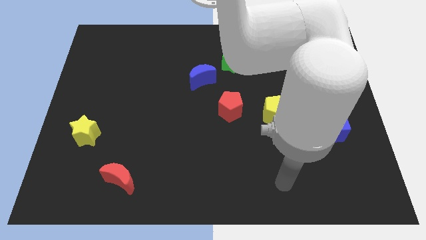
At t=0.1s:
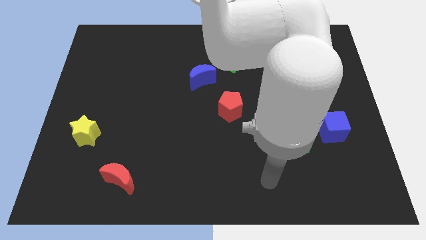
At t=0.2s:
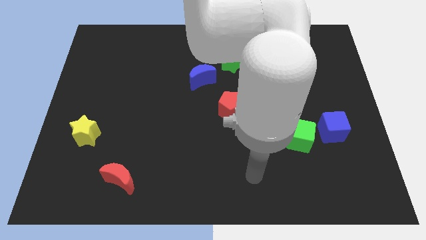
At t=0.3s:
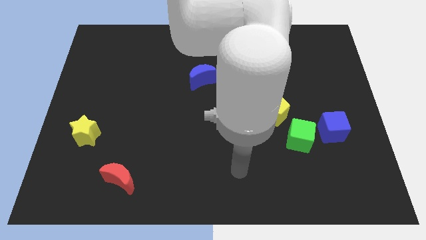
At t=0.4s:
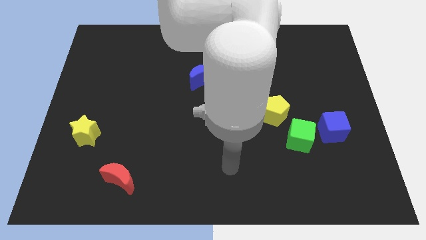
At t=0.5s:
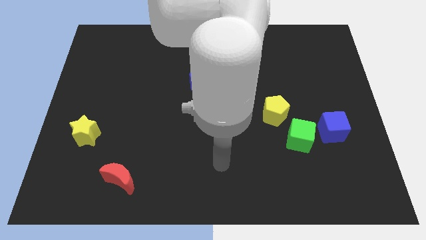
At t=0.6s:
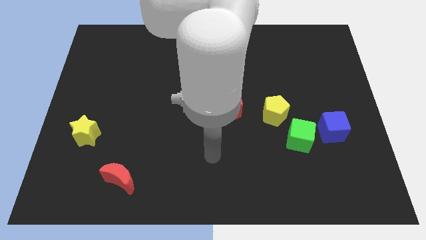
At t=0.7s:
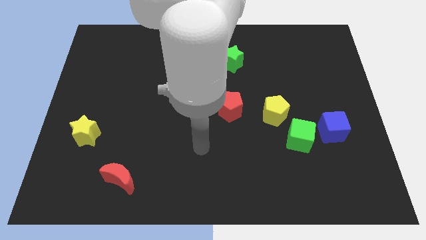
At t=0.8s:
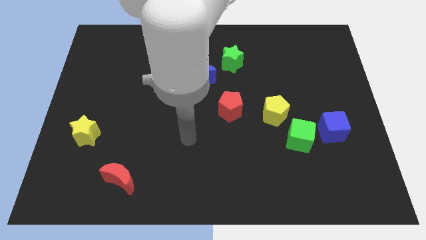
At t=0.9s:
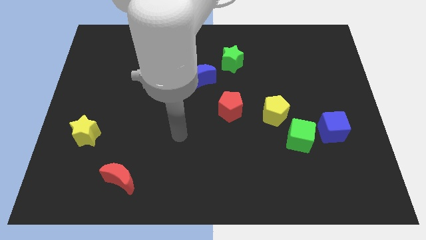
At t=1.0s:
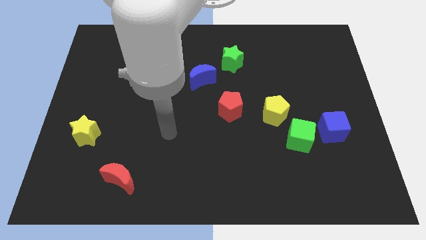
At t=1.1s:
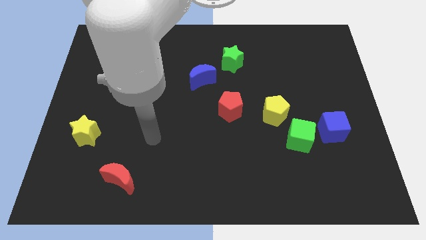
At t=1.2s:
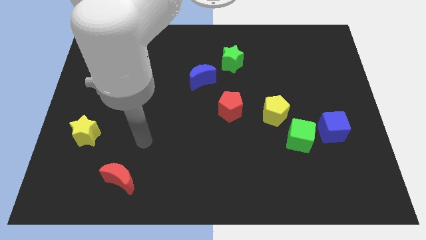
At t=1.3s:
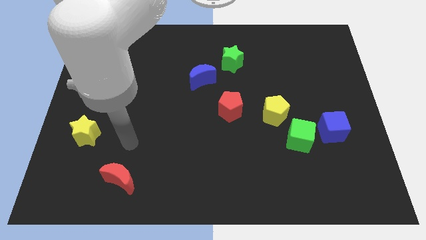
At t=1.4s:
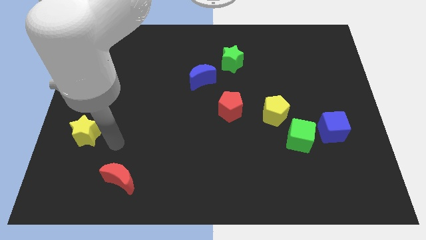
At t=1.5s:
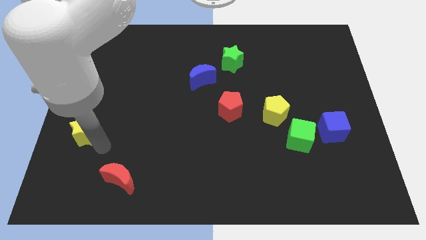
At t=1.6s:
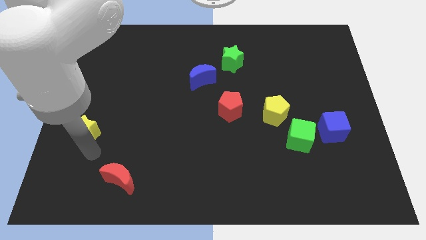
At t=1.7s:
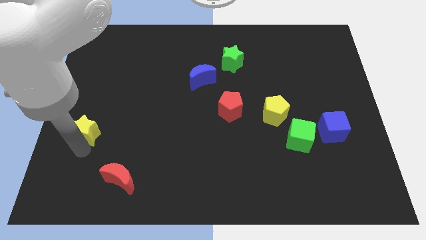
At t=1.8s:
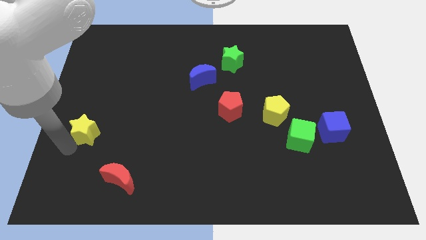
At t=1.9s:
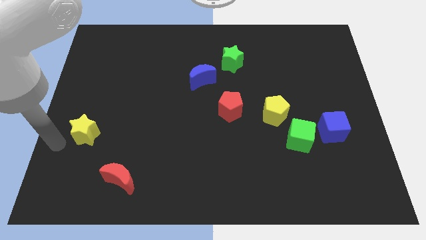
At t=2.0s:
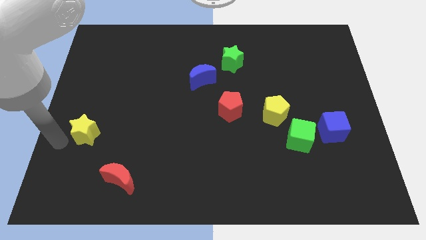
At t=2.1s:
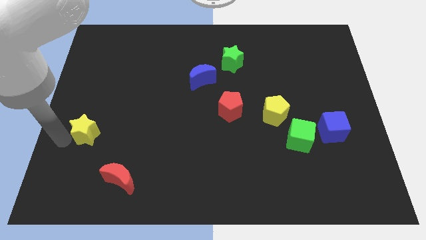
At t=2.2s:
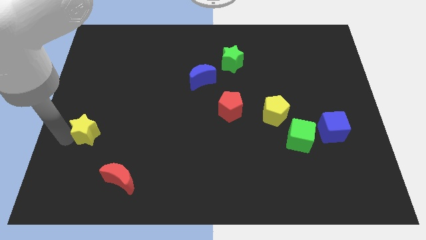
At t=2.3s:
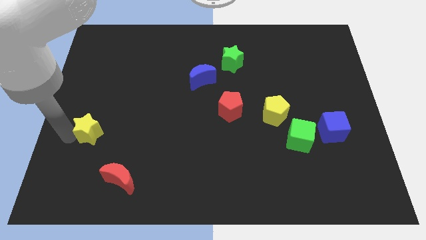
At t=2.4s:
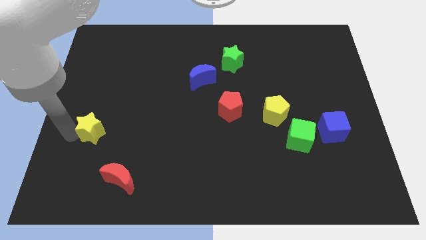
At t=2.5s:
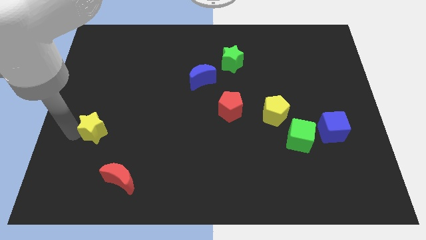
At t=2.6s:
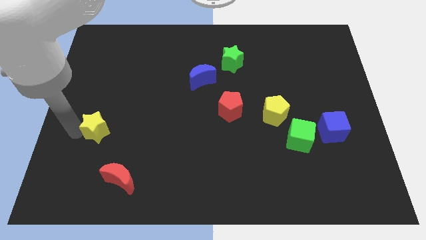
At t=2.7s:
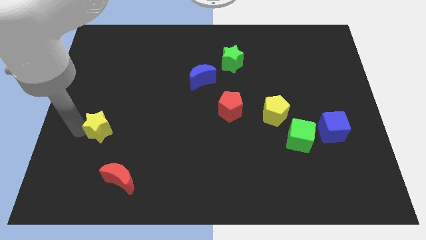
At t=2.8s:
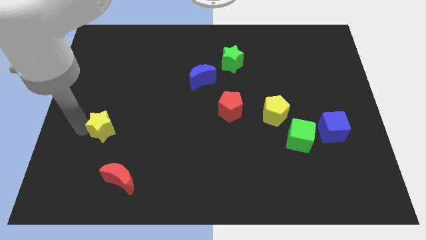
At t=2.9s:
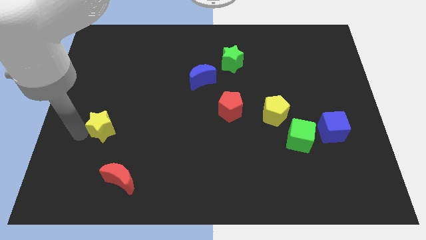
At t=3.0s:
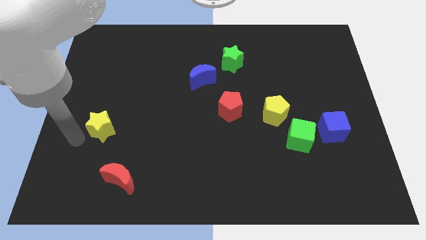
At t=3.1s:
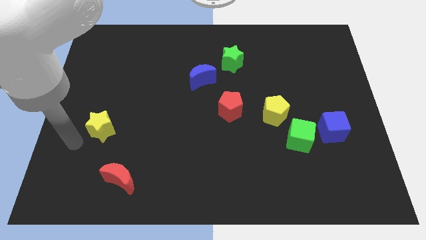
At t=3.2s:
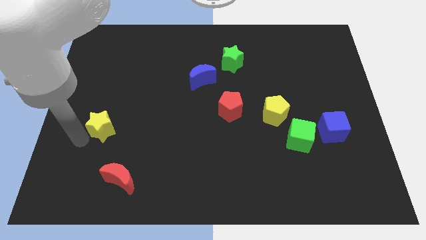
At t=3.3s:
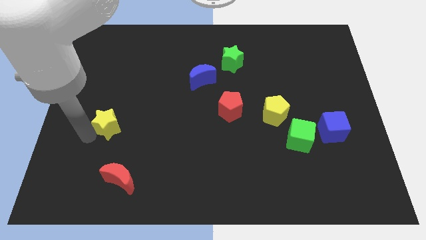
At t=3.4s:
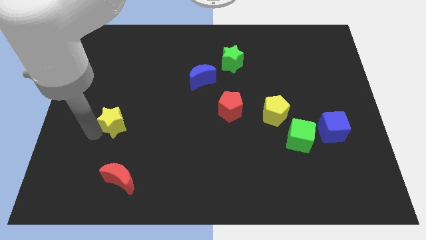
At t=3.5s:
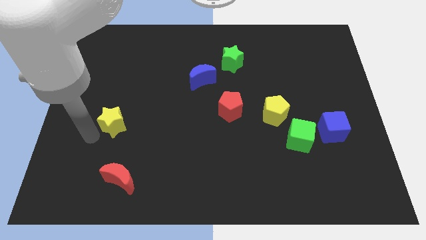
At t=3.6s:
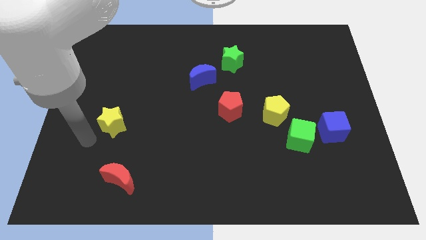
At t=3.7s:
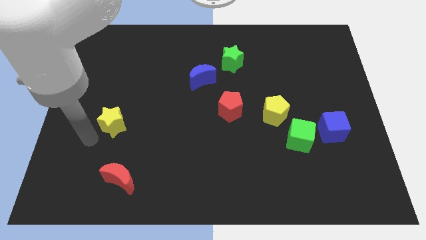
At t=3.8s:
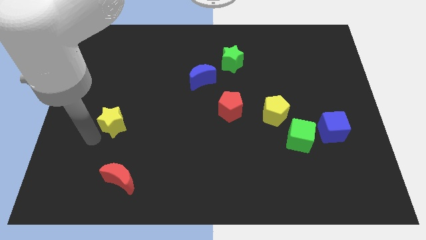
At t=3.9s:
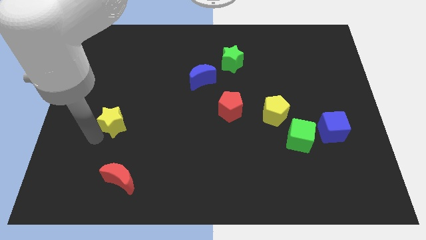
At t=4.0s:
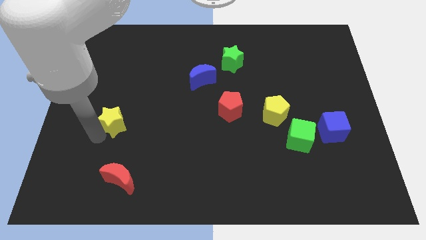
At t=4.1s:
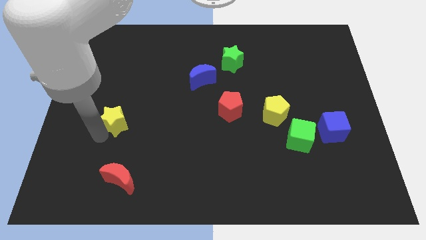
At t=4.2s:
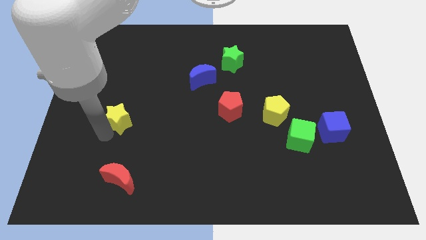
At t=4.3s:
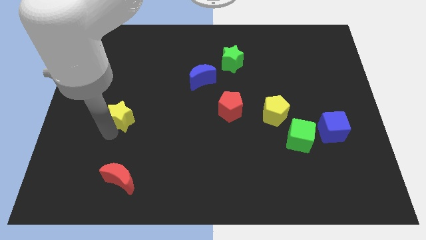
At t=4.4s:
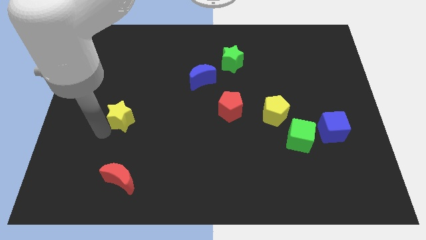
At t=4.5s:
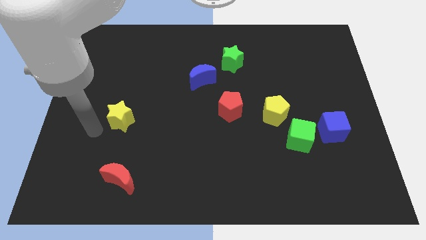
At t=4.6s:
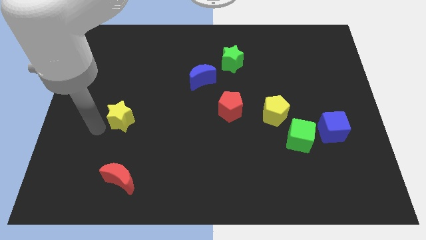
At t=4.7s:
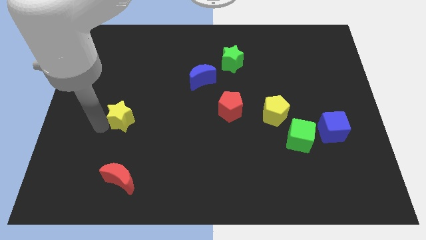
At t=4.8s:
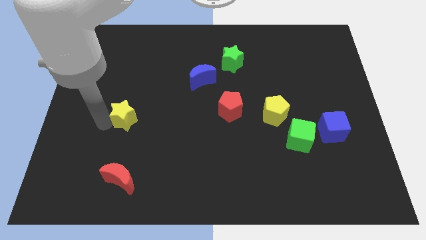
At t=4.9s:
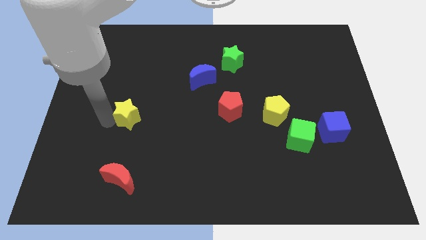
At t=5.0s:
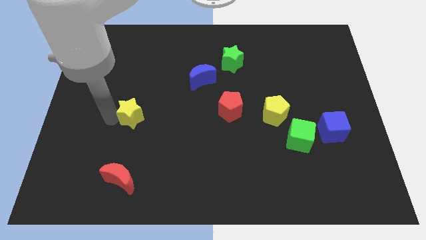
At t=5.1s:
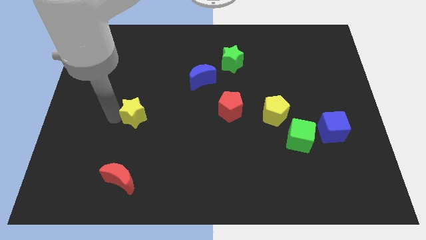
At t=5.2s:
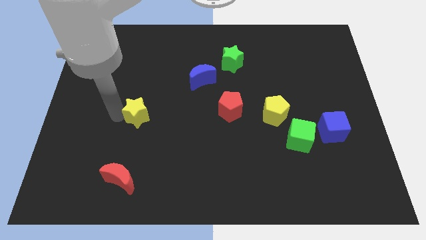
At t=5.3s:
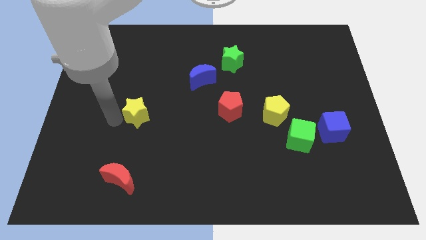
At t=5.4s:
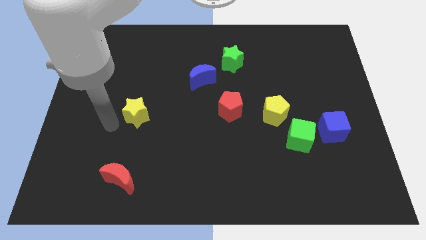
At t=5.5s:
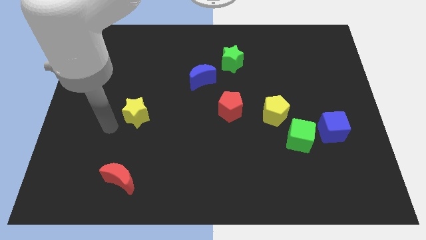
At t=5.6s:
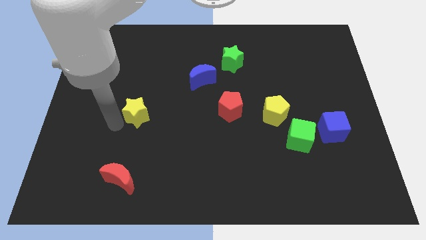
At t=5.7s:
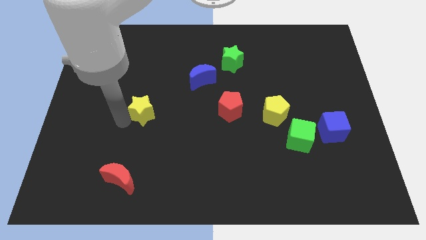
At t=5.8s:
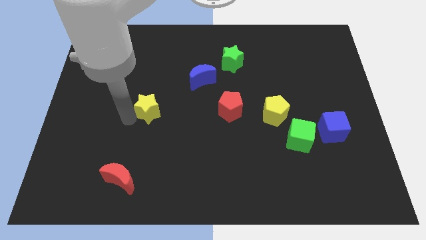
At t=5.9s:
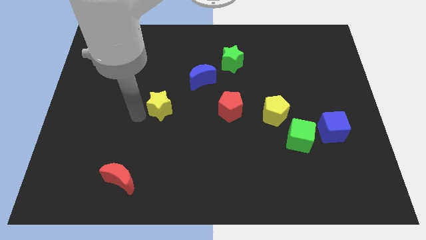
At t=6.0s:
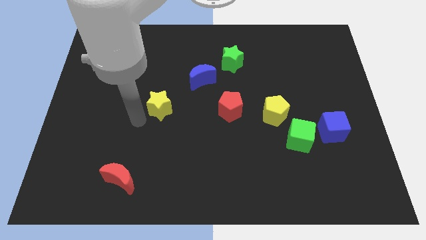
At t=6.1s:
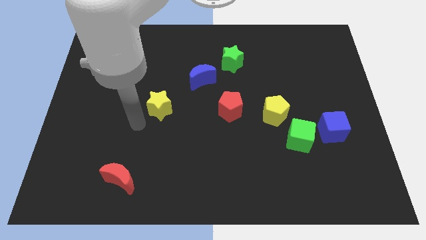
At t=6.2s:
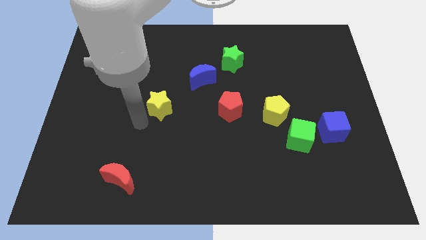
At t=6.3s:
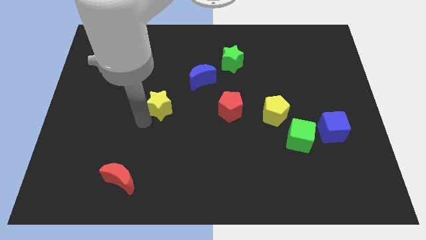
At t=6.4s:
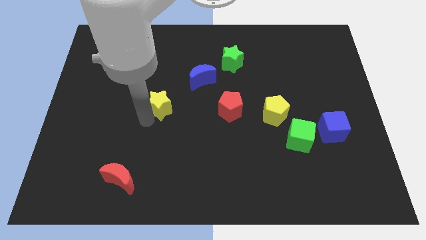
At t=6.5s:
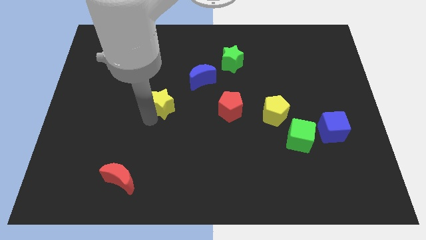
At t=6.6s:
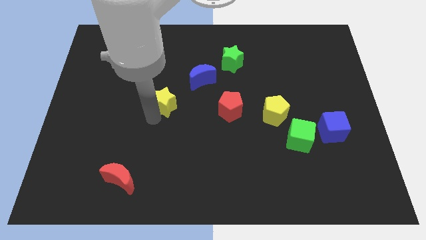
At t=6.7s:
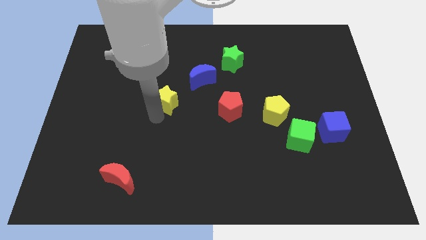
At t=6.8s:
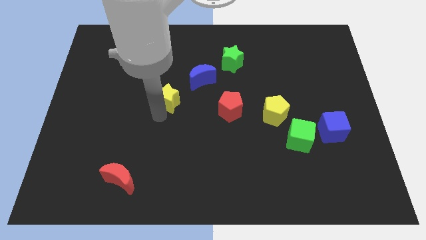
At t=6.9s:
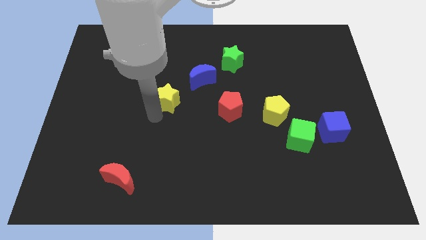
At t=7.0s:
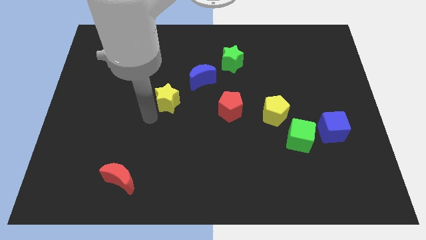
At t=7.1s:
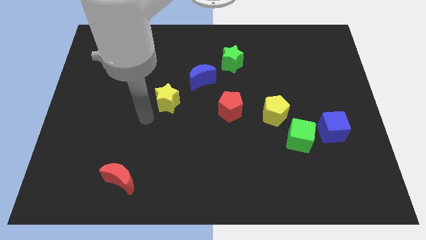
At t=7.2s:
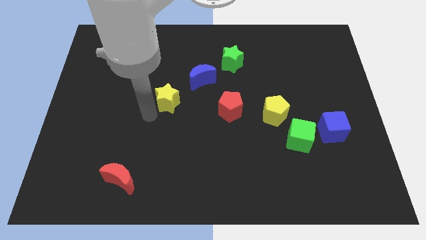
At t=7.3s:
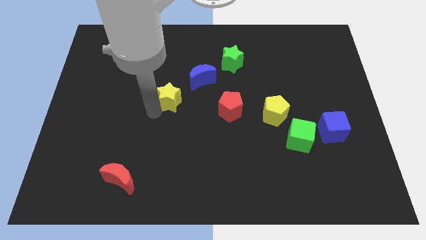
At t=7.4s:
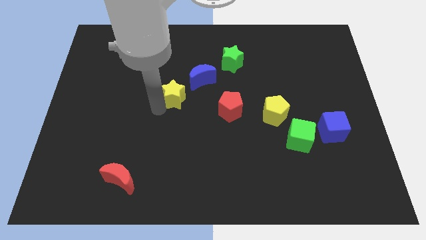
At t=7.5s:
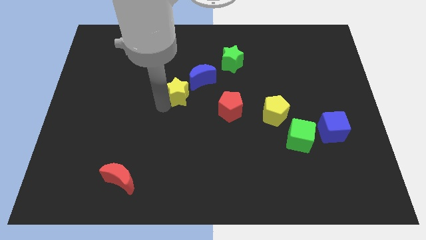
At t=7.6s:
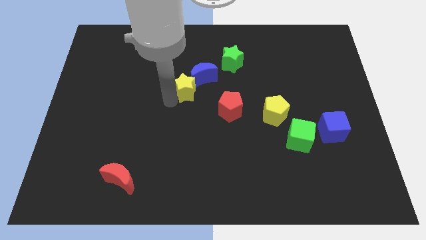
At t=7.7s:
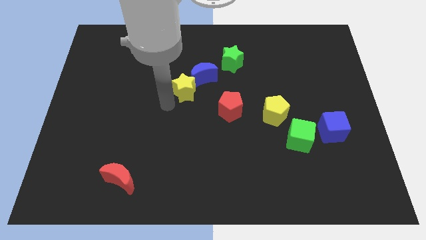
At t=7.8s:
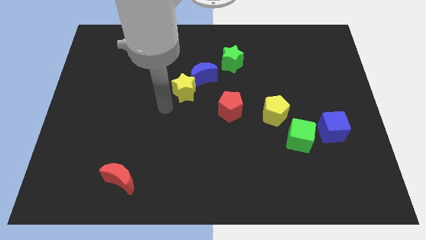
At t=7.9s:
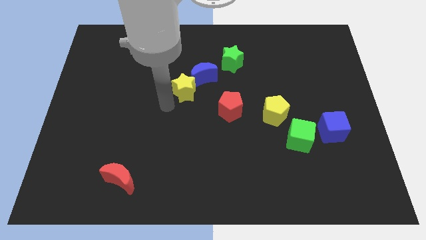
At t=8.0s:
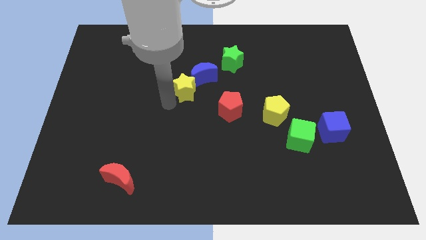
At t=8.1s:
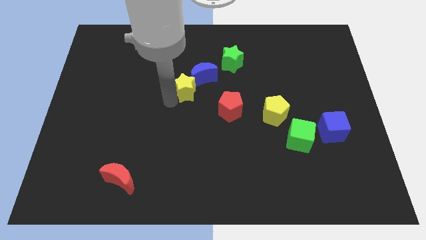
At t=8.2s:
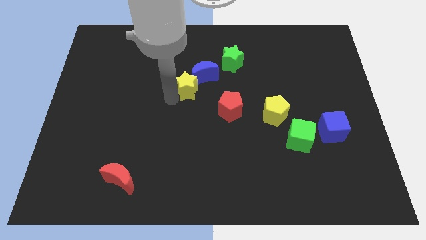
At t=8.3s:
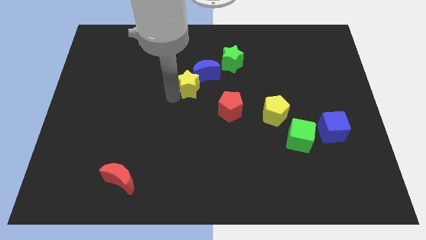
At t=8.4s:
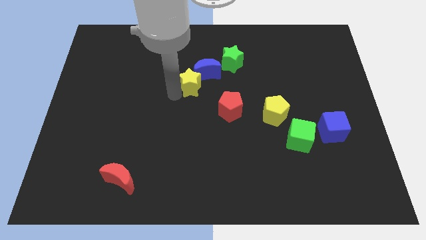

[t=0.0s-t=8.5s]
slide the yellow star next to the blue moon
